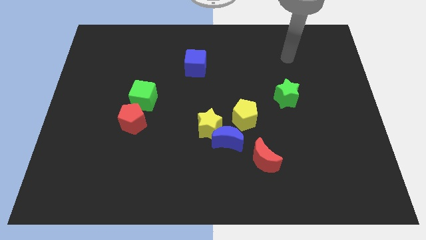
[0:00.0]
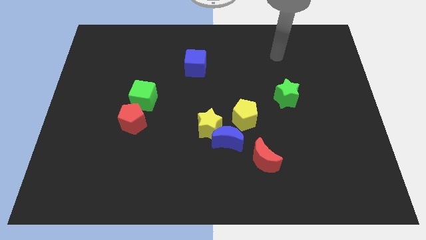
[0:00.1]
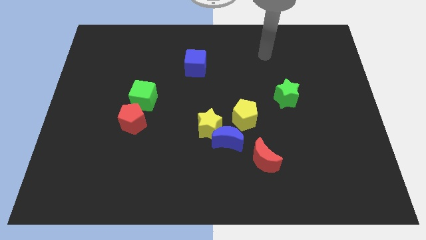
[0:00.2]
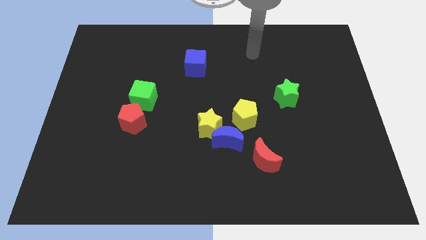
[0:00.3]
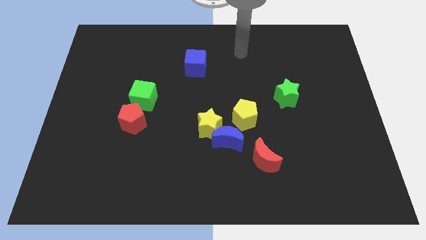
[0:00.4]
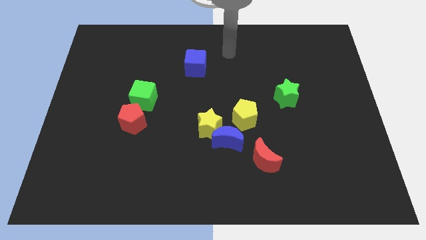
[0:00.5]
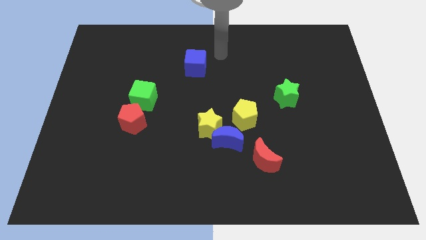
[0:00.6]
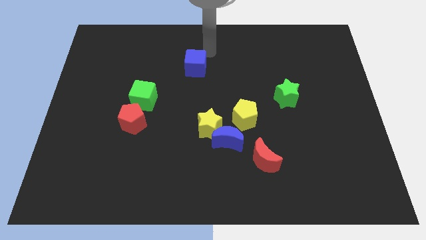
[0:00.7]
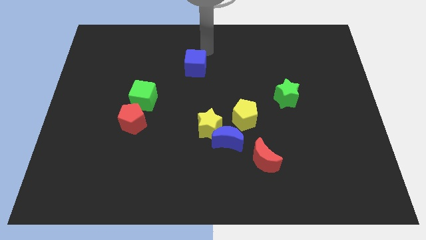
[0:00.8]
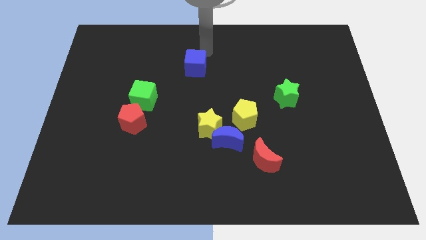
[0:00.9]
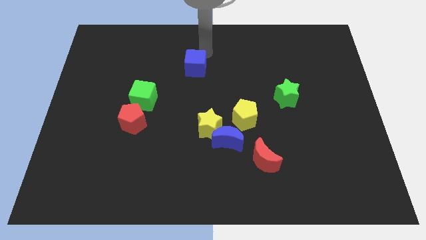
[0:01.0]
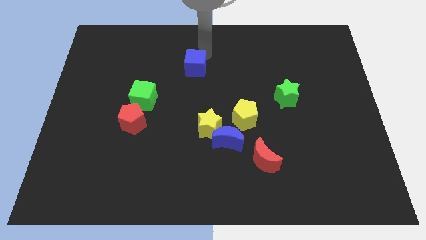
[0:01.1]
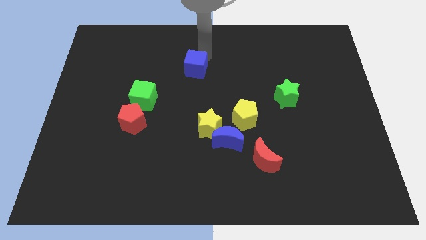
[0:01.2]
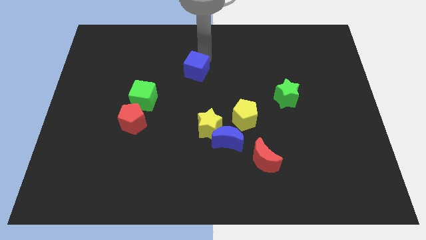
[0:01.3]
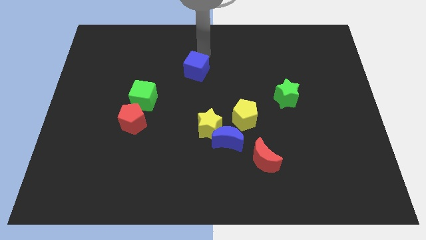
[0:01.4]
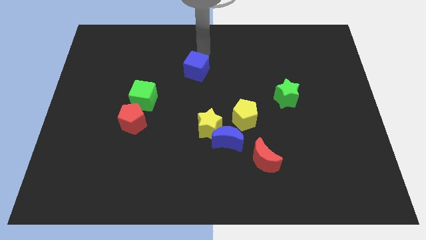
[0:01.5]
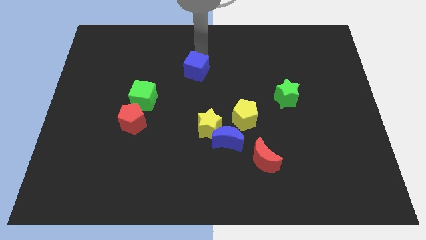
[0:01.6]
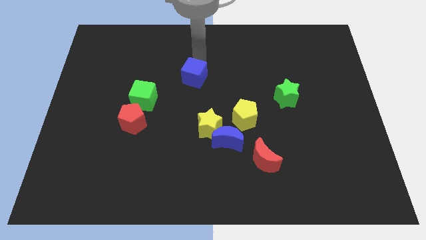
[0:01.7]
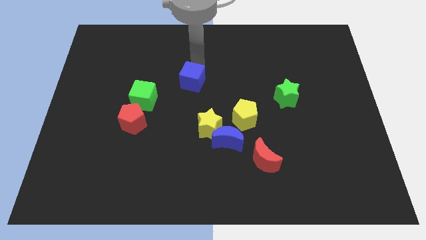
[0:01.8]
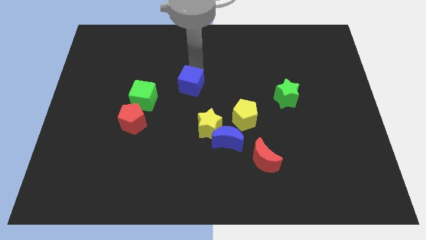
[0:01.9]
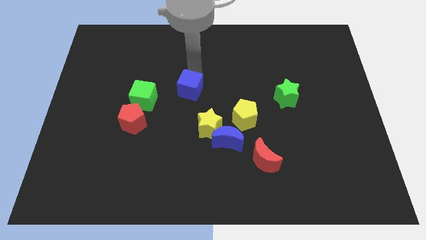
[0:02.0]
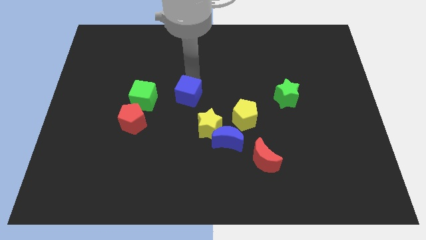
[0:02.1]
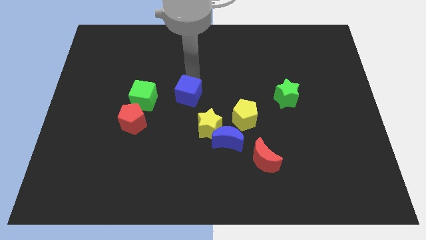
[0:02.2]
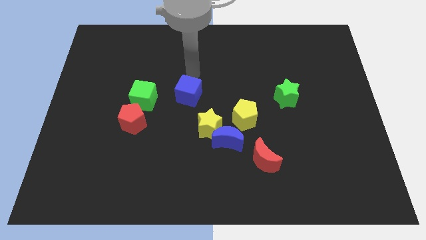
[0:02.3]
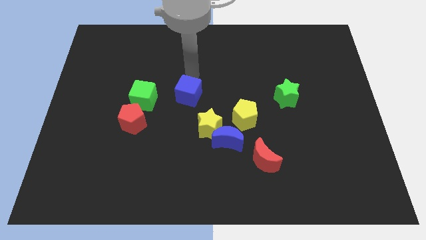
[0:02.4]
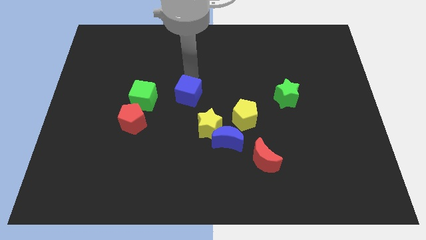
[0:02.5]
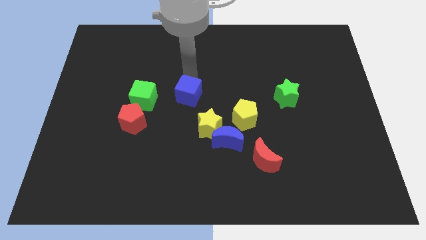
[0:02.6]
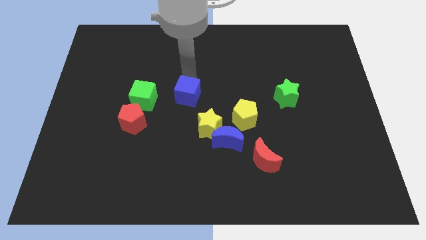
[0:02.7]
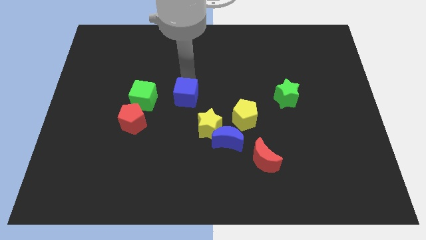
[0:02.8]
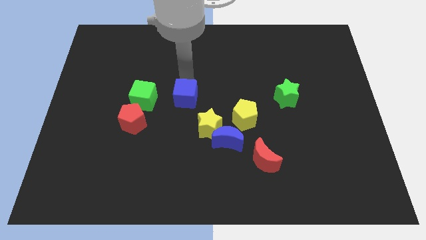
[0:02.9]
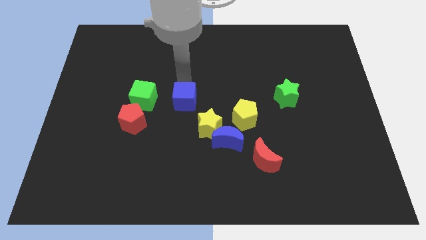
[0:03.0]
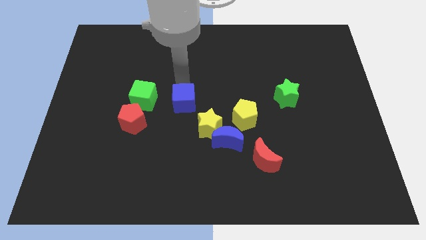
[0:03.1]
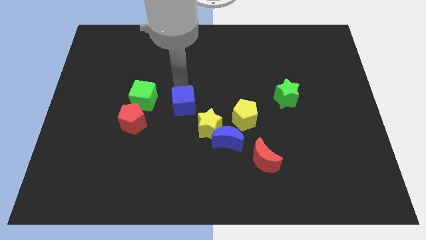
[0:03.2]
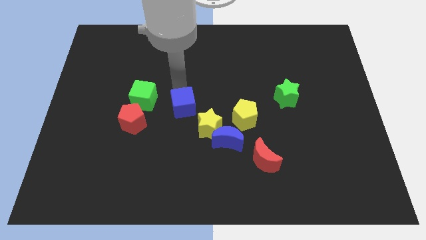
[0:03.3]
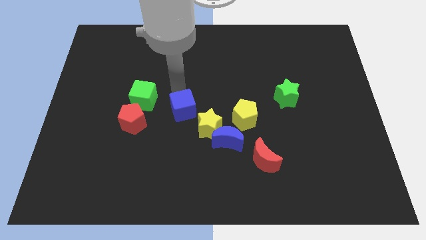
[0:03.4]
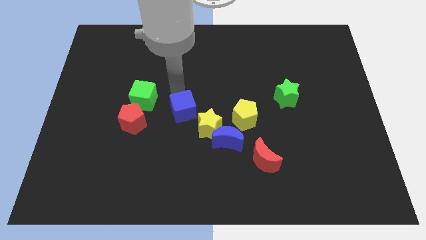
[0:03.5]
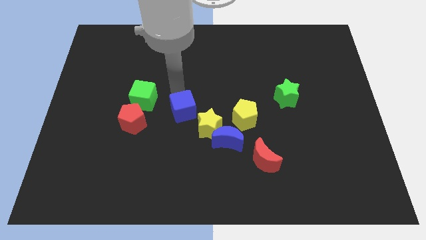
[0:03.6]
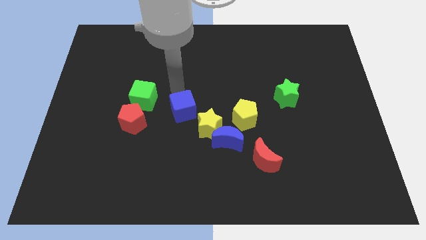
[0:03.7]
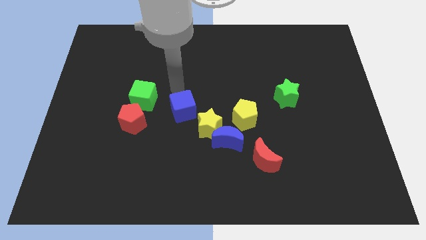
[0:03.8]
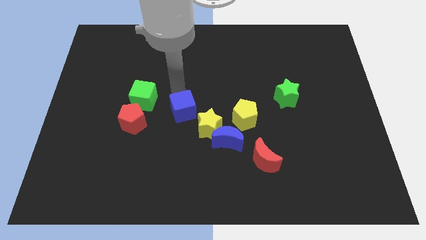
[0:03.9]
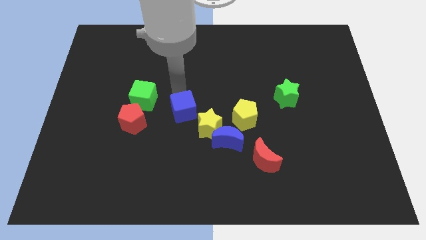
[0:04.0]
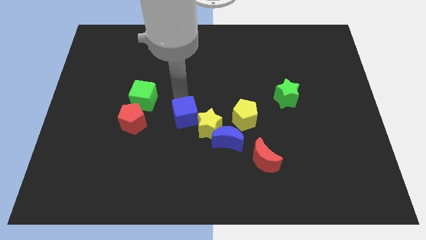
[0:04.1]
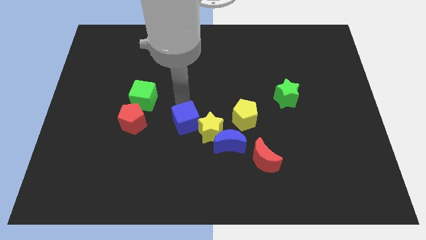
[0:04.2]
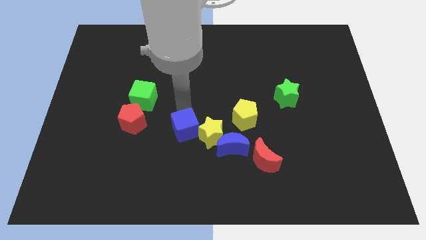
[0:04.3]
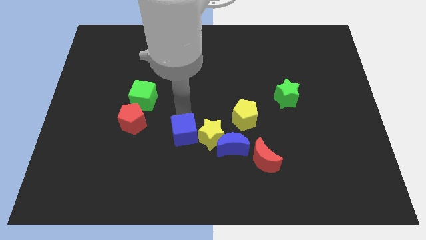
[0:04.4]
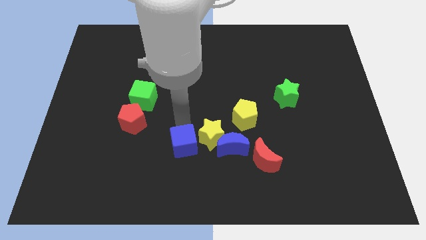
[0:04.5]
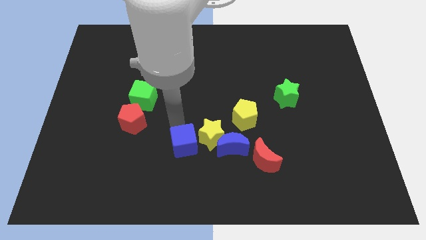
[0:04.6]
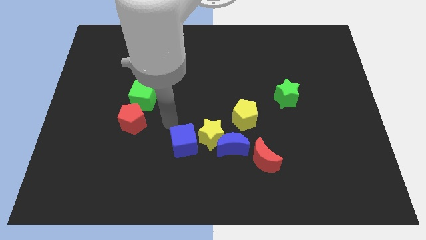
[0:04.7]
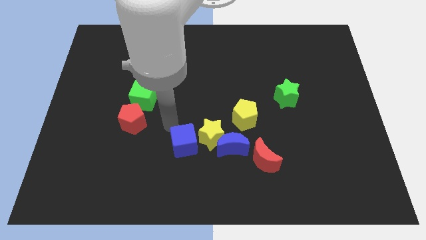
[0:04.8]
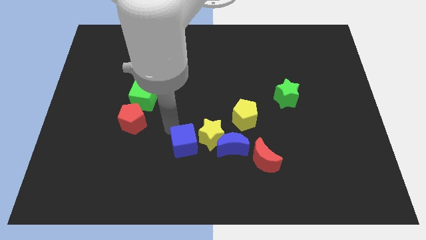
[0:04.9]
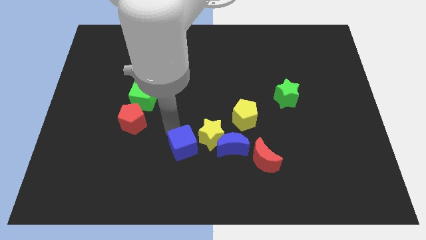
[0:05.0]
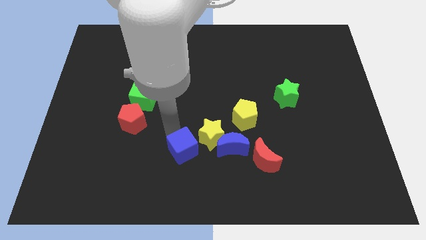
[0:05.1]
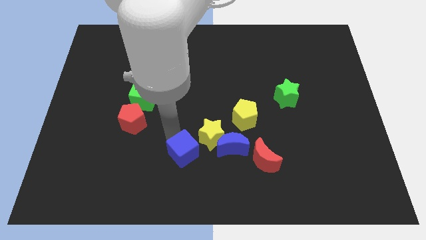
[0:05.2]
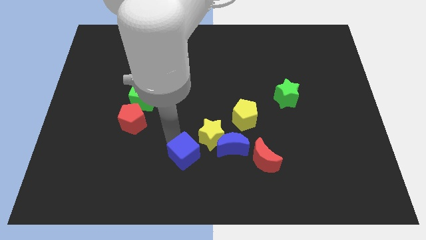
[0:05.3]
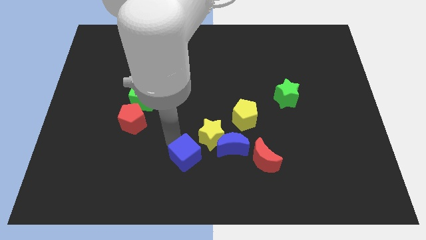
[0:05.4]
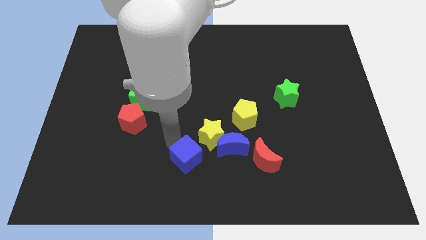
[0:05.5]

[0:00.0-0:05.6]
slide the blue cube to the bottom

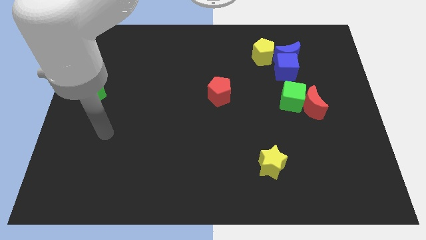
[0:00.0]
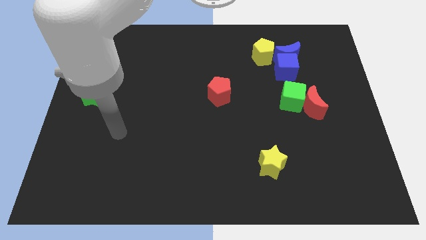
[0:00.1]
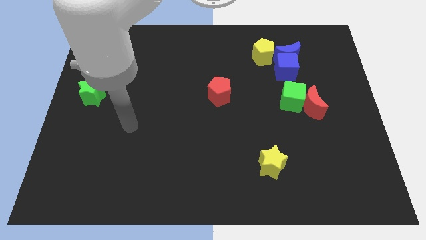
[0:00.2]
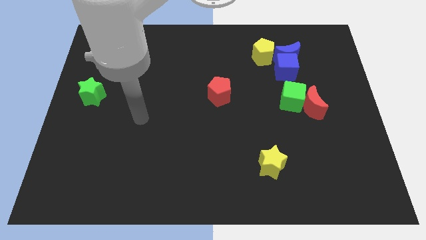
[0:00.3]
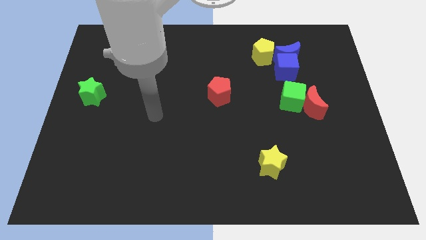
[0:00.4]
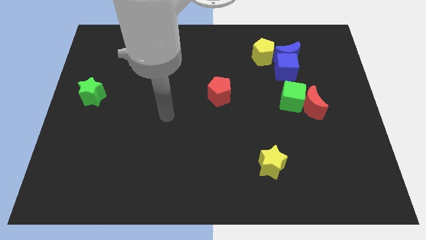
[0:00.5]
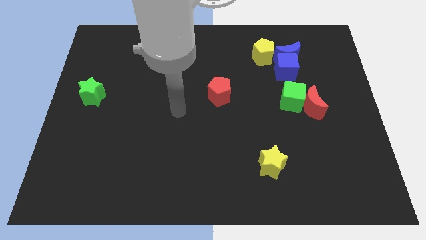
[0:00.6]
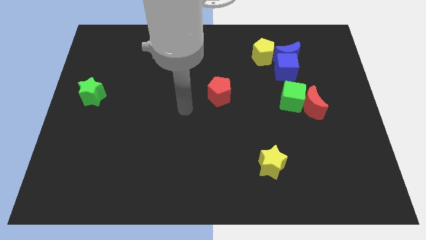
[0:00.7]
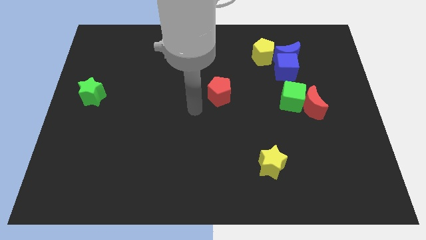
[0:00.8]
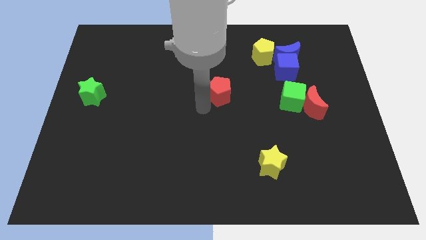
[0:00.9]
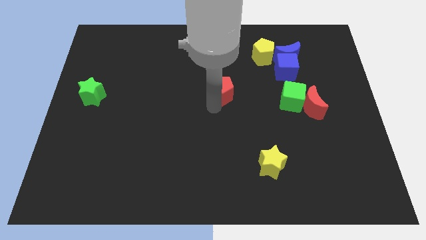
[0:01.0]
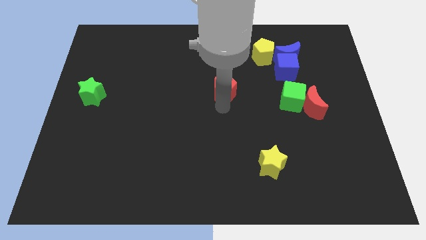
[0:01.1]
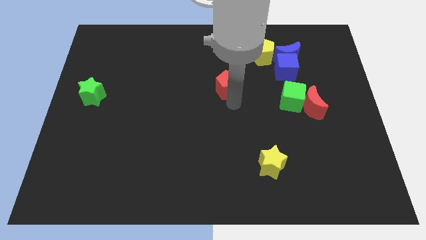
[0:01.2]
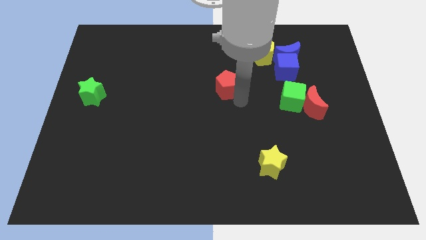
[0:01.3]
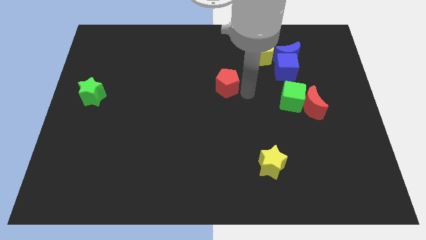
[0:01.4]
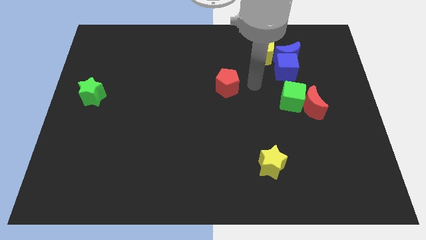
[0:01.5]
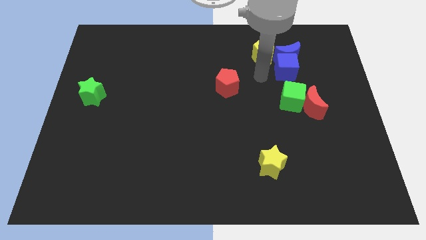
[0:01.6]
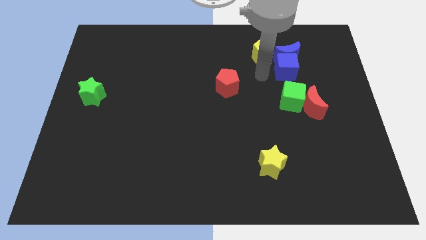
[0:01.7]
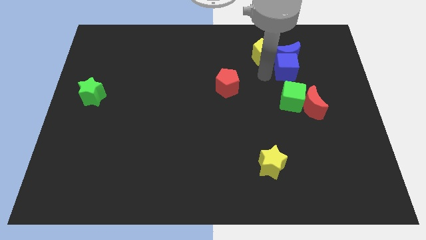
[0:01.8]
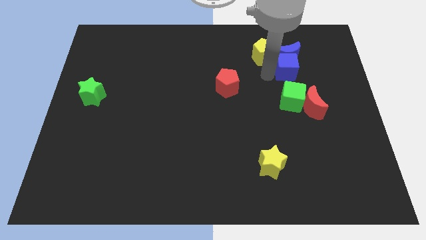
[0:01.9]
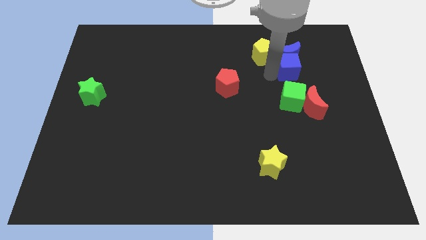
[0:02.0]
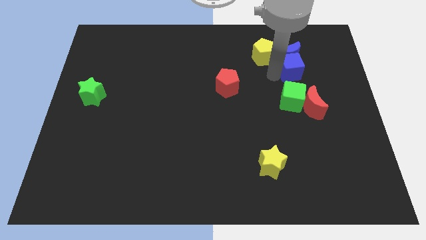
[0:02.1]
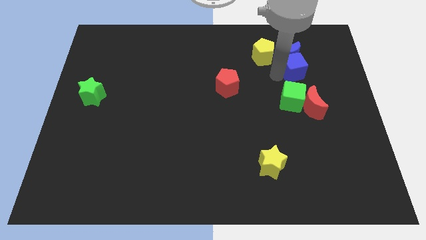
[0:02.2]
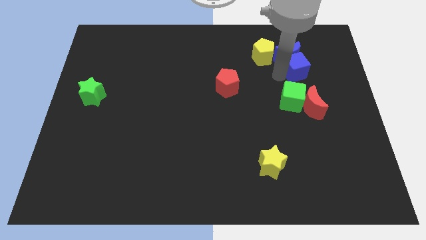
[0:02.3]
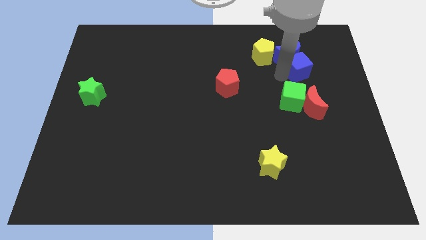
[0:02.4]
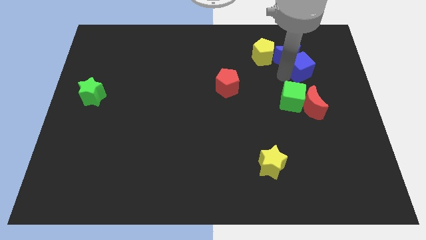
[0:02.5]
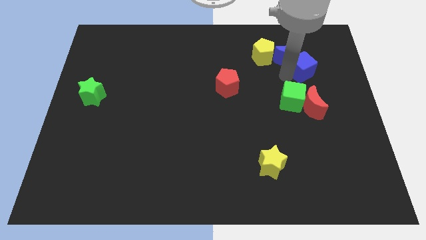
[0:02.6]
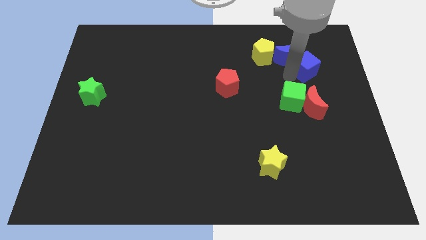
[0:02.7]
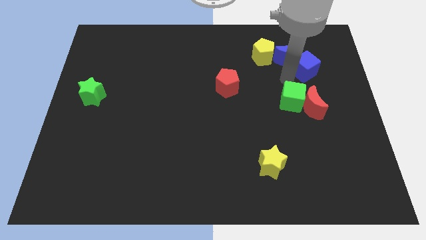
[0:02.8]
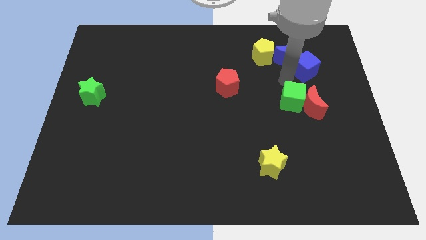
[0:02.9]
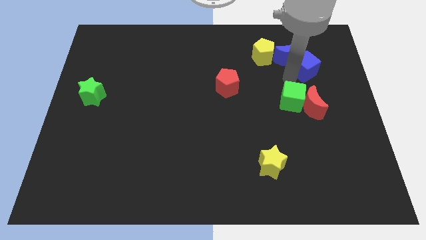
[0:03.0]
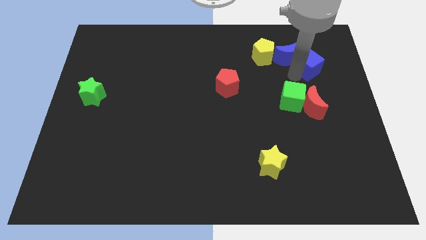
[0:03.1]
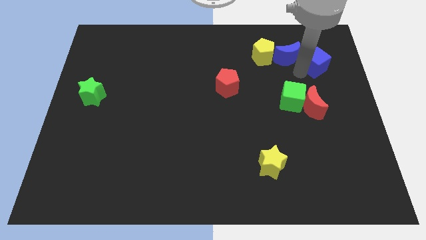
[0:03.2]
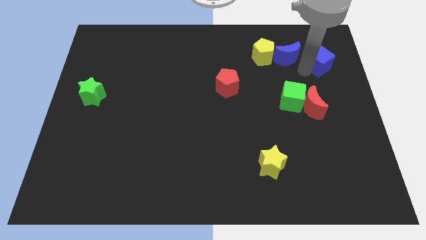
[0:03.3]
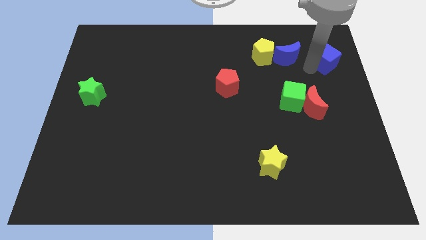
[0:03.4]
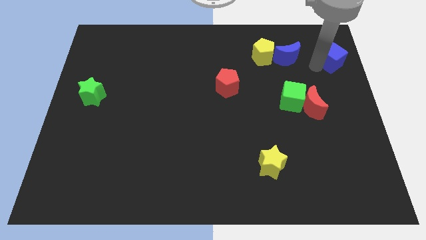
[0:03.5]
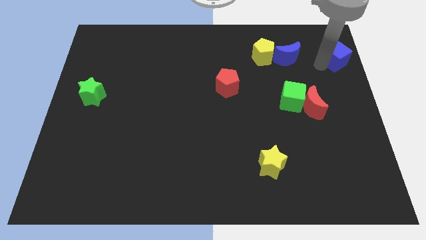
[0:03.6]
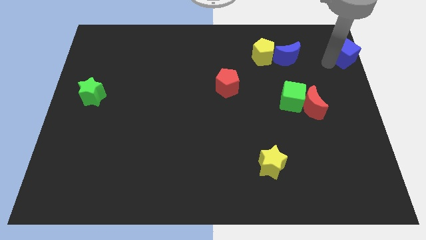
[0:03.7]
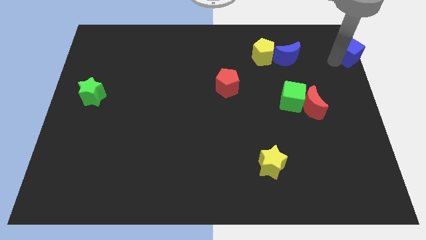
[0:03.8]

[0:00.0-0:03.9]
move the blue cube to the top right
